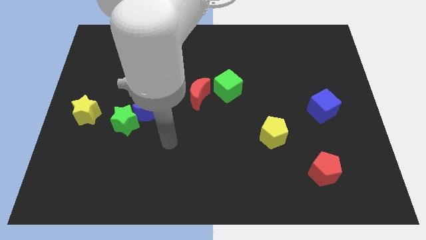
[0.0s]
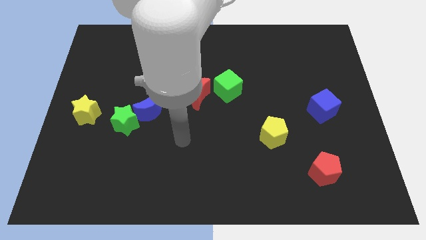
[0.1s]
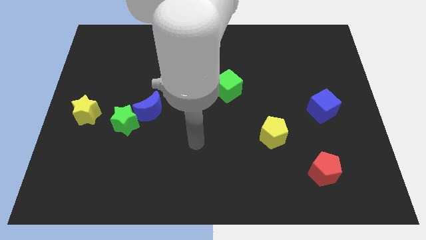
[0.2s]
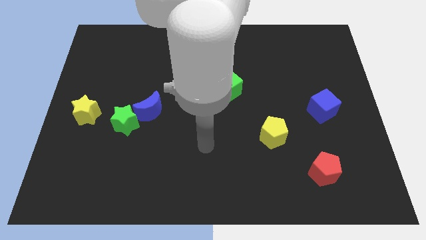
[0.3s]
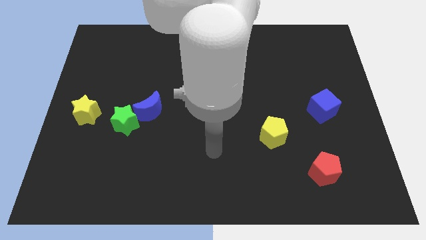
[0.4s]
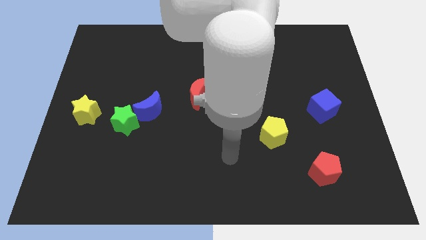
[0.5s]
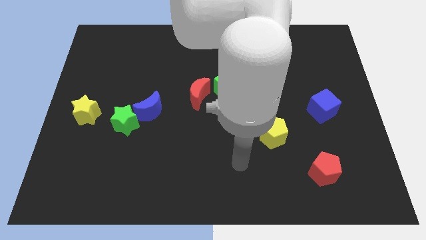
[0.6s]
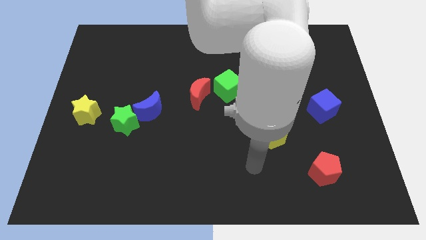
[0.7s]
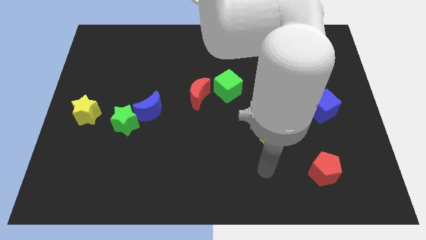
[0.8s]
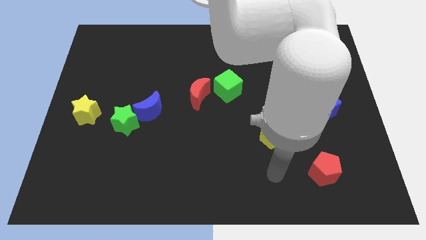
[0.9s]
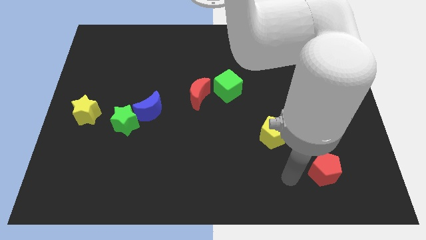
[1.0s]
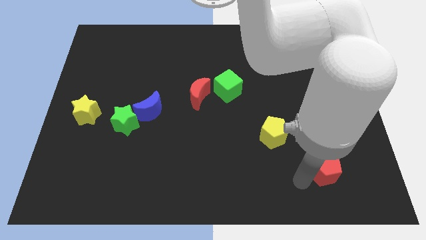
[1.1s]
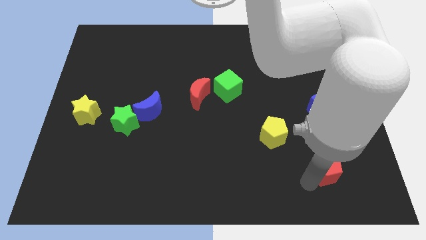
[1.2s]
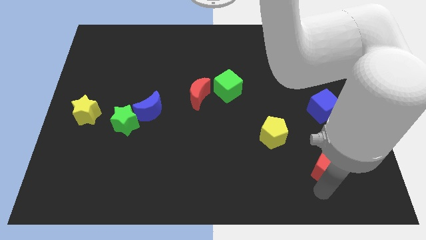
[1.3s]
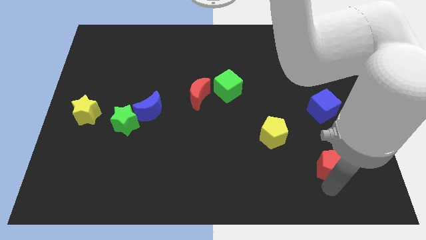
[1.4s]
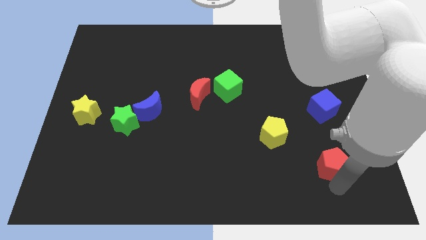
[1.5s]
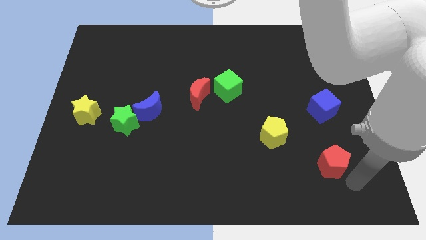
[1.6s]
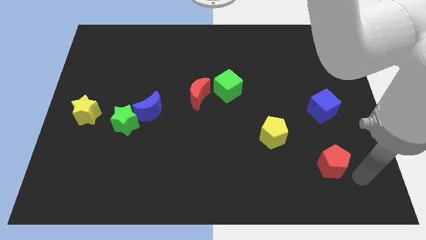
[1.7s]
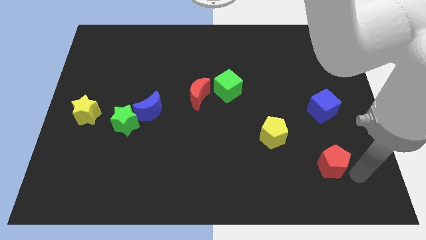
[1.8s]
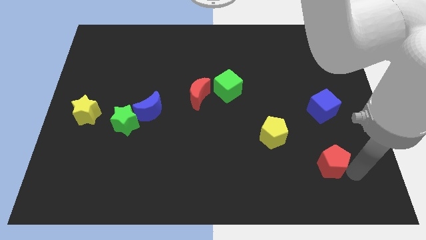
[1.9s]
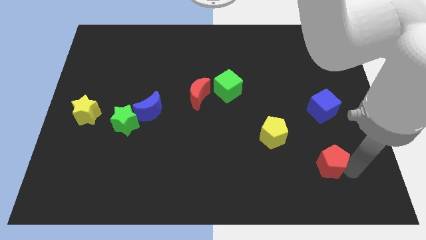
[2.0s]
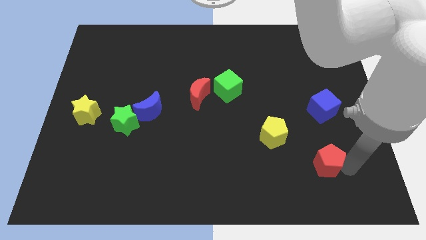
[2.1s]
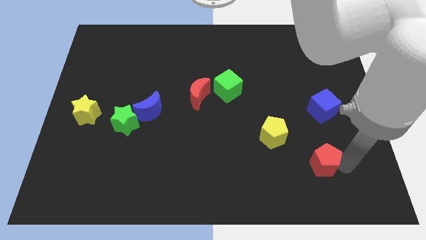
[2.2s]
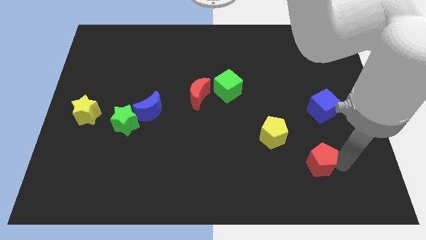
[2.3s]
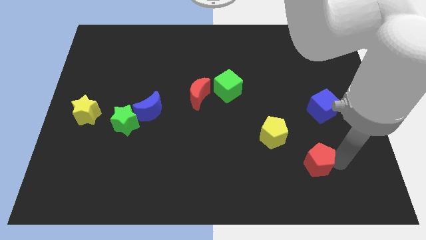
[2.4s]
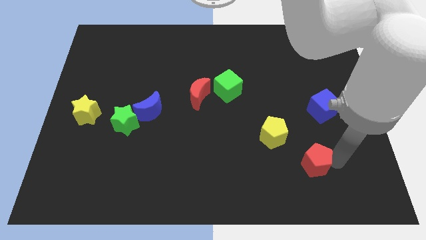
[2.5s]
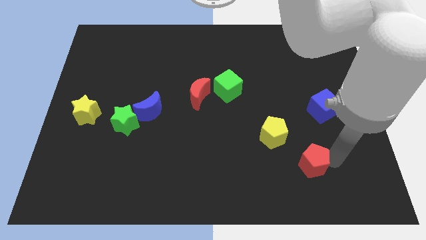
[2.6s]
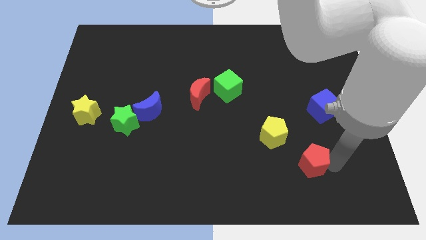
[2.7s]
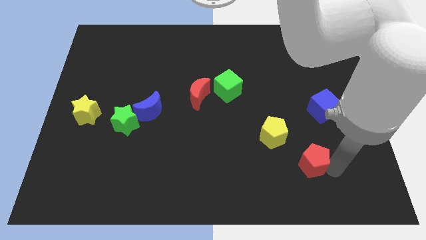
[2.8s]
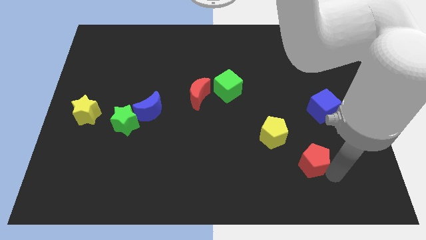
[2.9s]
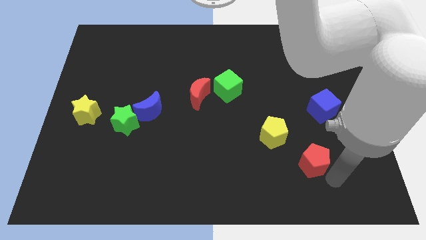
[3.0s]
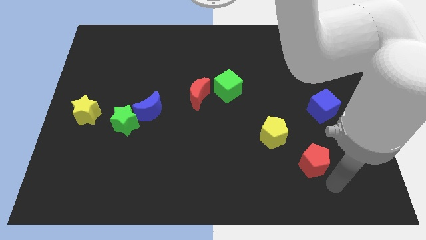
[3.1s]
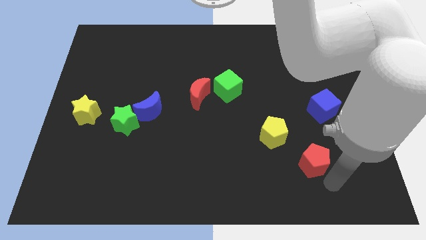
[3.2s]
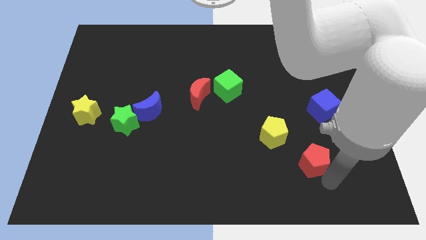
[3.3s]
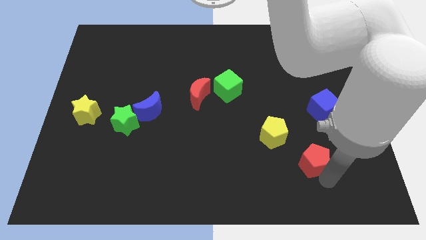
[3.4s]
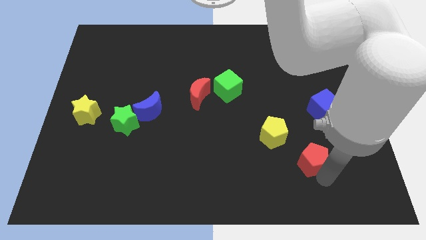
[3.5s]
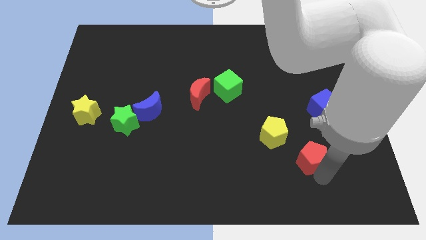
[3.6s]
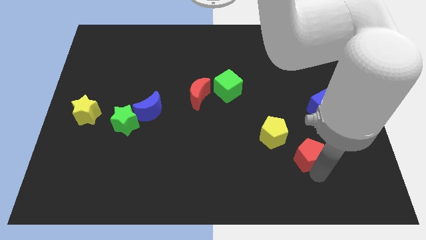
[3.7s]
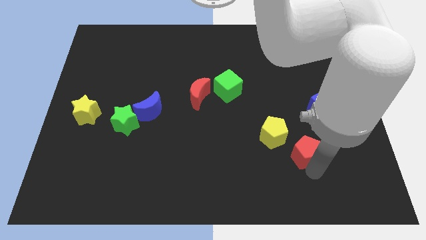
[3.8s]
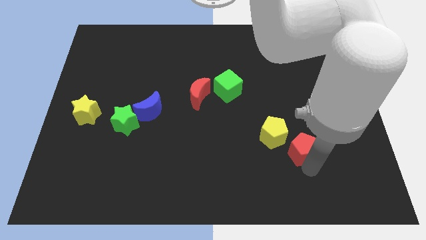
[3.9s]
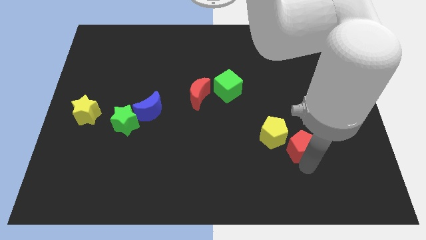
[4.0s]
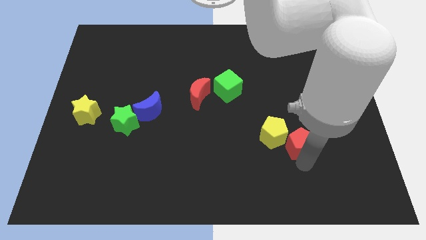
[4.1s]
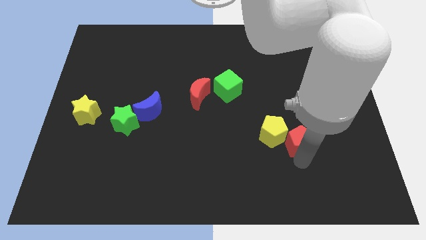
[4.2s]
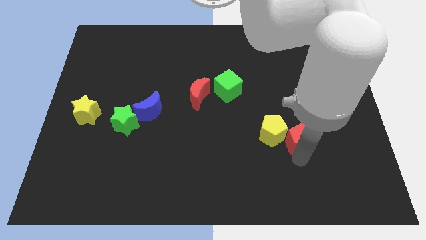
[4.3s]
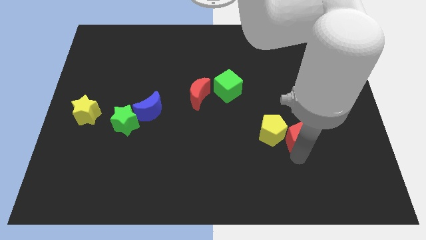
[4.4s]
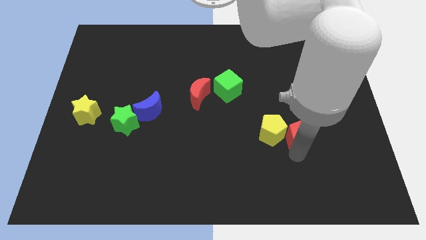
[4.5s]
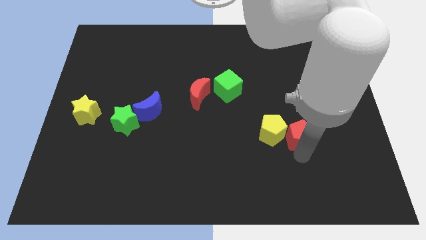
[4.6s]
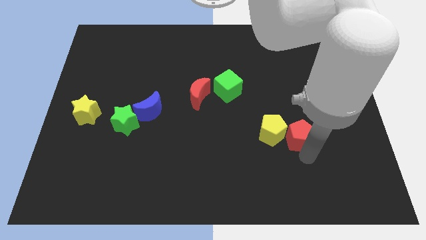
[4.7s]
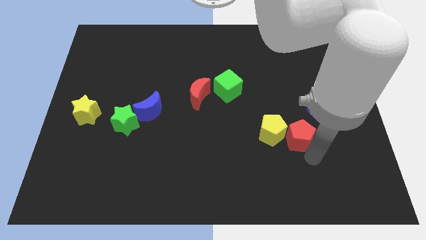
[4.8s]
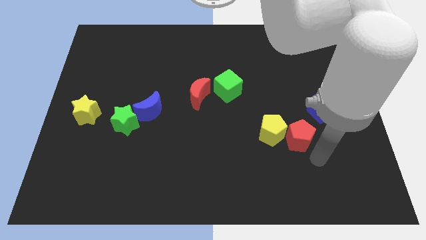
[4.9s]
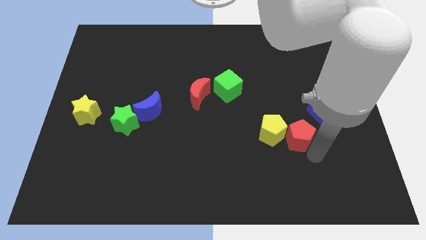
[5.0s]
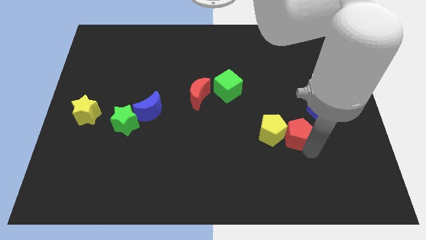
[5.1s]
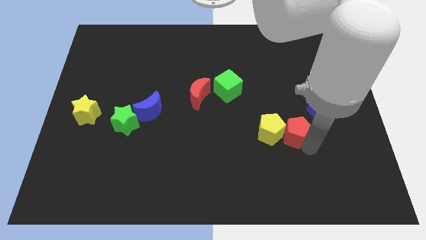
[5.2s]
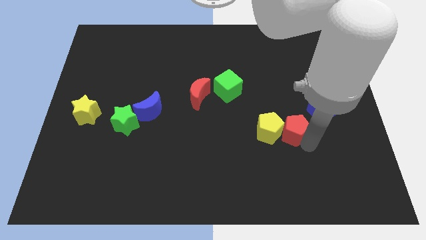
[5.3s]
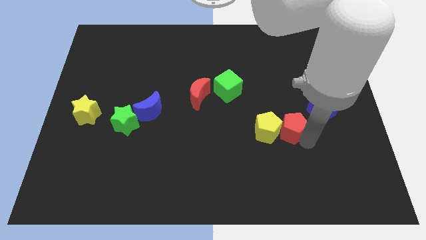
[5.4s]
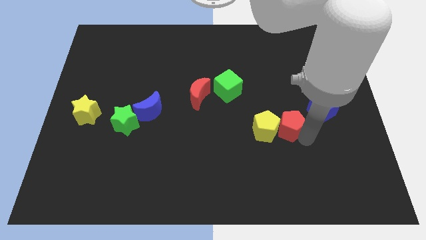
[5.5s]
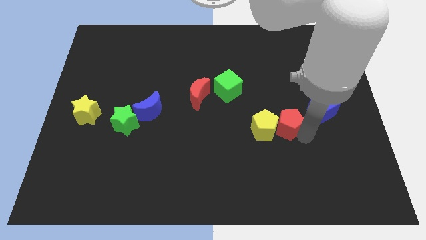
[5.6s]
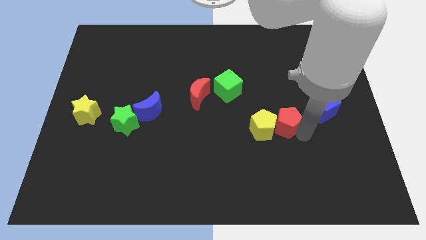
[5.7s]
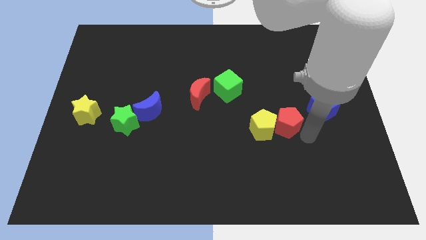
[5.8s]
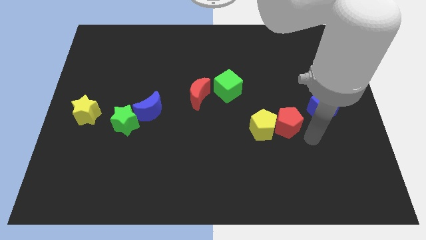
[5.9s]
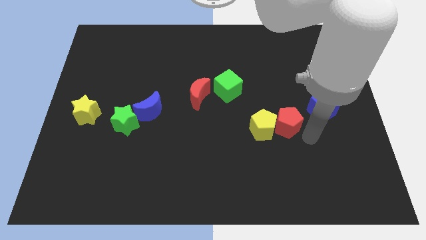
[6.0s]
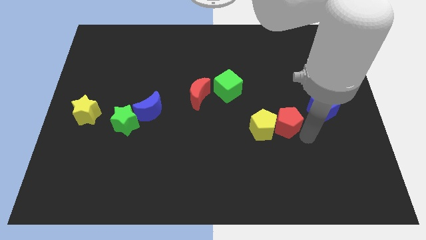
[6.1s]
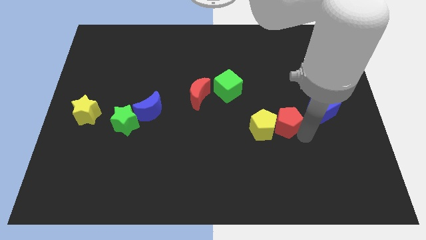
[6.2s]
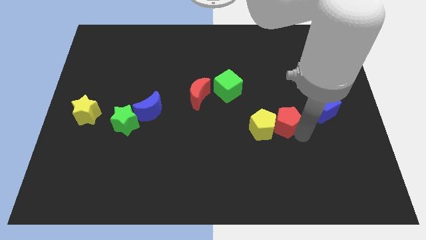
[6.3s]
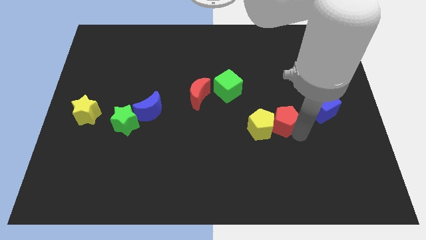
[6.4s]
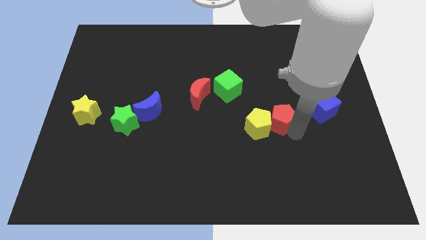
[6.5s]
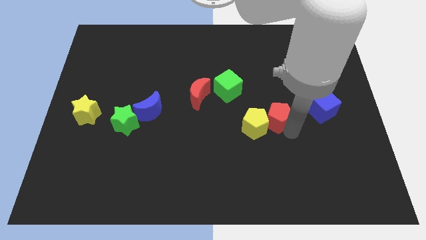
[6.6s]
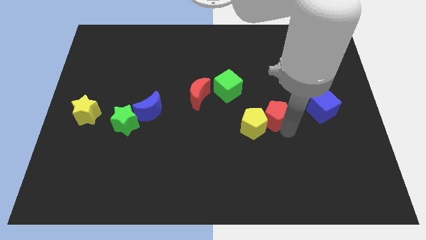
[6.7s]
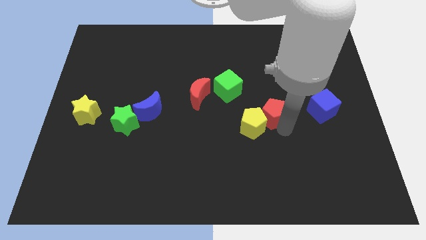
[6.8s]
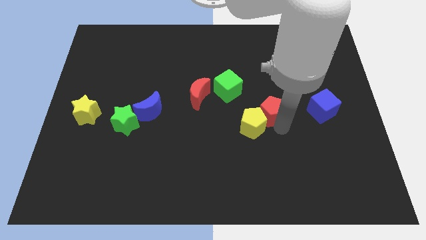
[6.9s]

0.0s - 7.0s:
slide the red pentagon diagonally down and to the right of the green cube

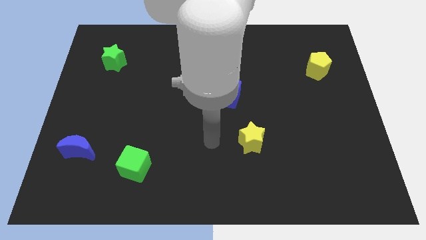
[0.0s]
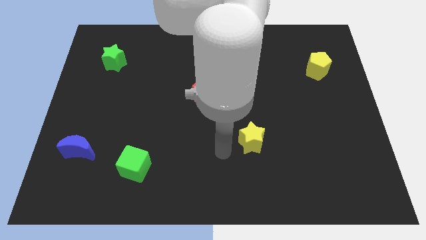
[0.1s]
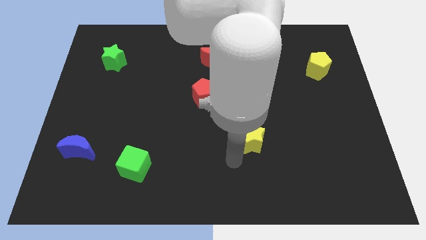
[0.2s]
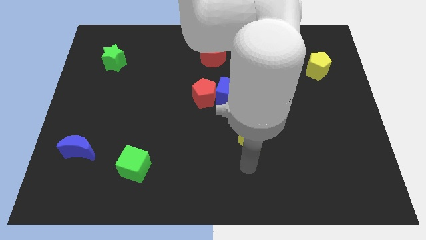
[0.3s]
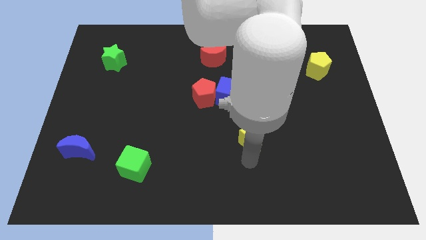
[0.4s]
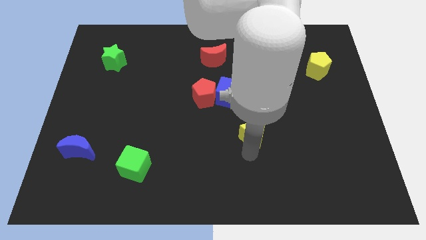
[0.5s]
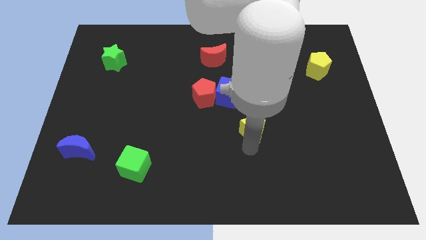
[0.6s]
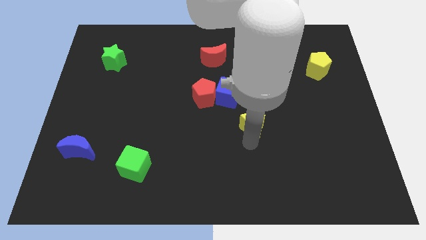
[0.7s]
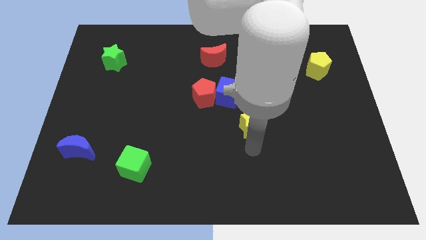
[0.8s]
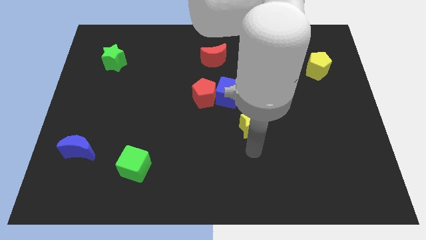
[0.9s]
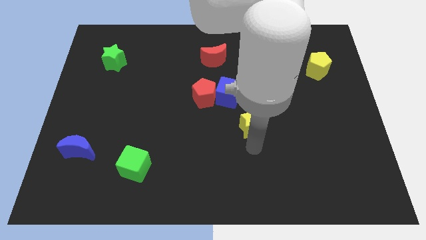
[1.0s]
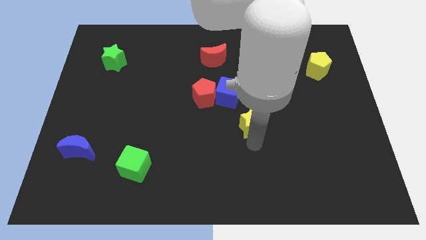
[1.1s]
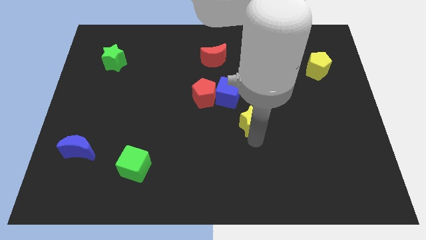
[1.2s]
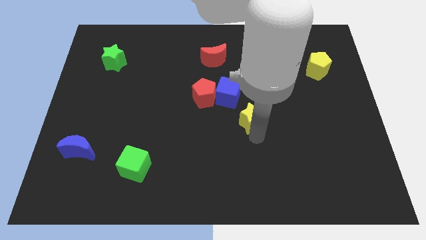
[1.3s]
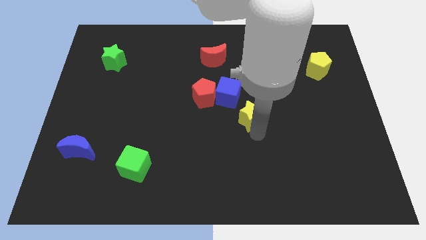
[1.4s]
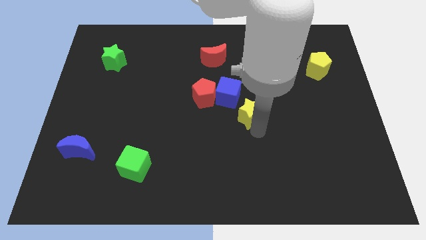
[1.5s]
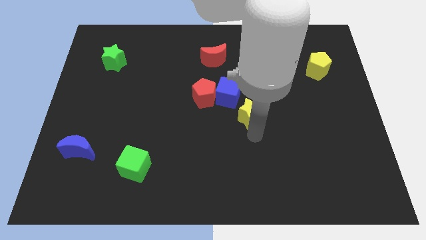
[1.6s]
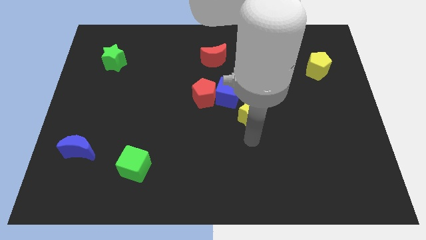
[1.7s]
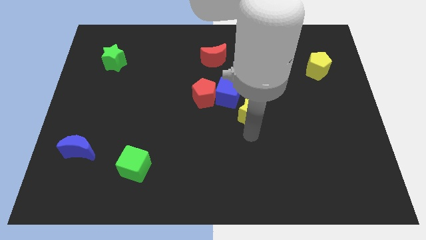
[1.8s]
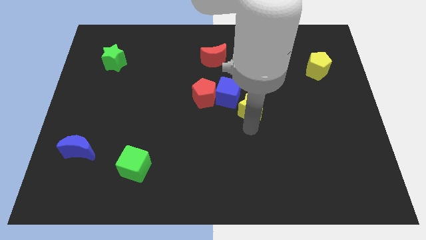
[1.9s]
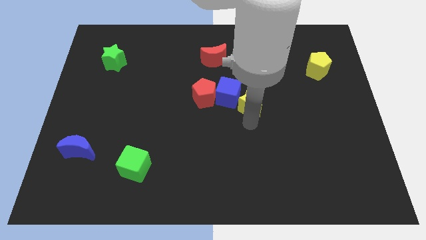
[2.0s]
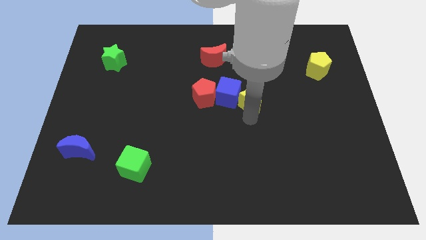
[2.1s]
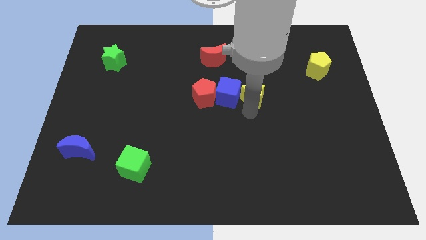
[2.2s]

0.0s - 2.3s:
push the yellow star to the top right side of the blue cube
